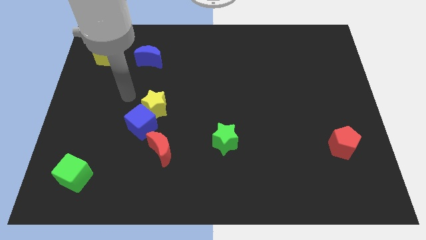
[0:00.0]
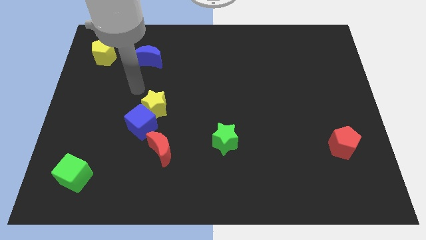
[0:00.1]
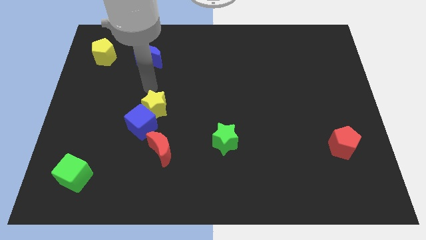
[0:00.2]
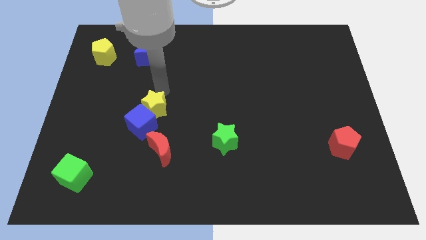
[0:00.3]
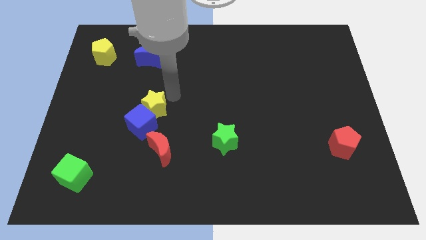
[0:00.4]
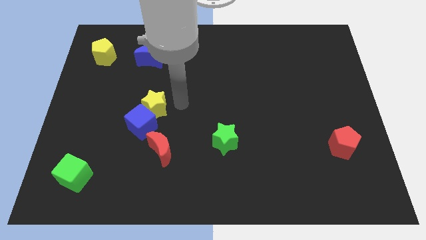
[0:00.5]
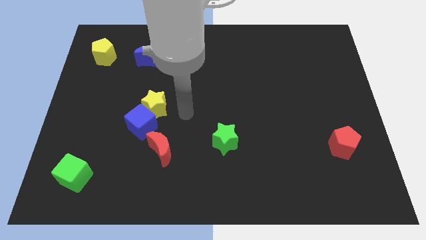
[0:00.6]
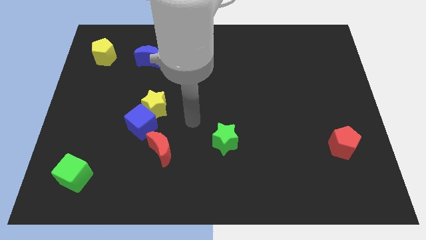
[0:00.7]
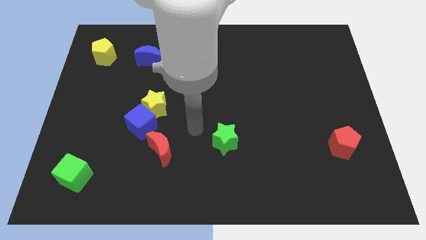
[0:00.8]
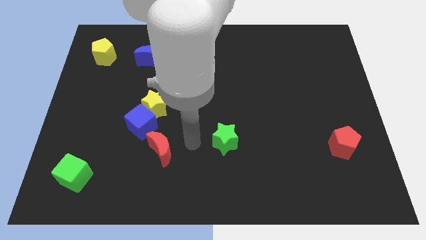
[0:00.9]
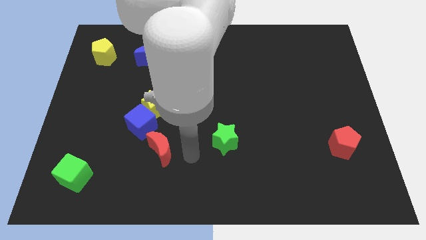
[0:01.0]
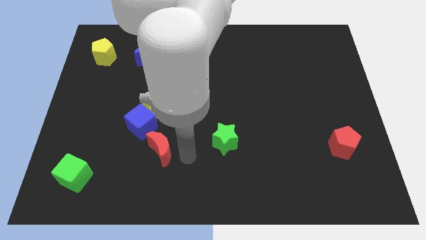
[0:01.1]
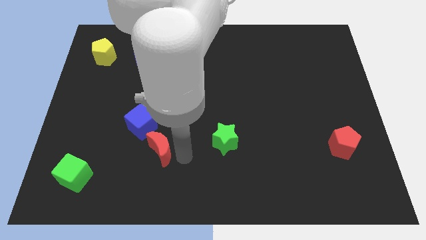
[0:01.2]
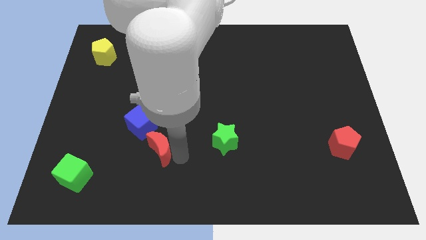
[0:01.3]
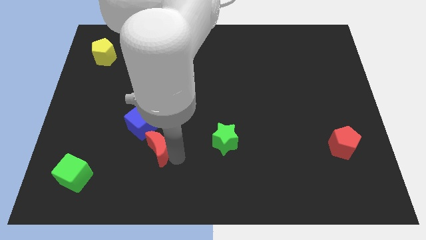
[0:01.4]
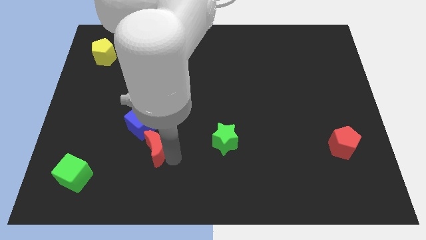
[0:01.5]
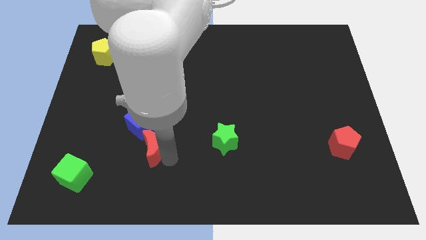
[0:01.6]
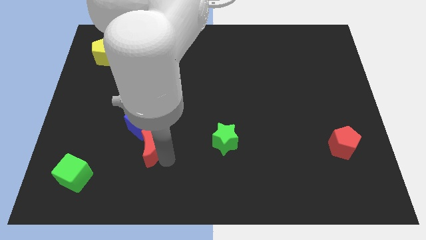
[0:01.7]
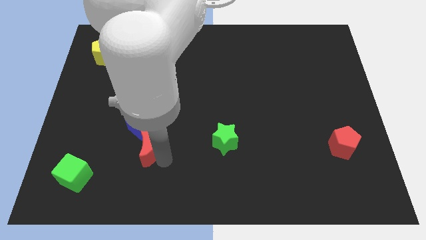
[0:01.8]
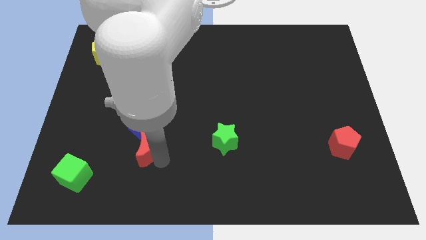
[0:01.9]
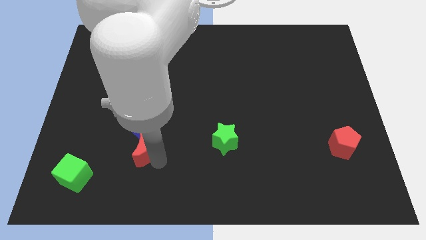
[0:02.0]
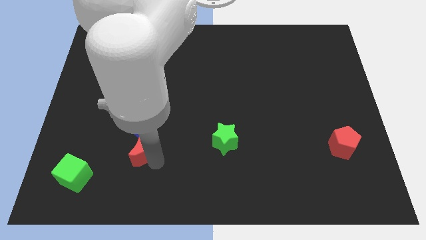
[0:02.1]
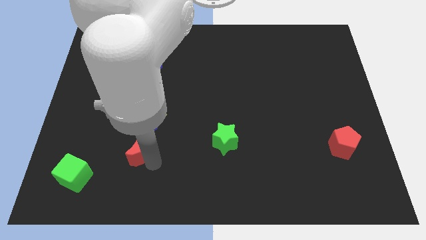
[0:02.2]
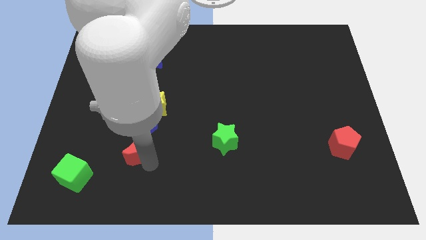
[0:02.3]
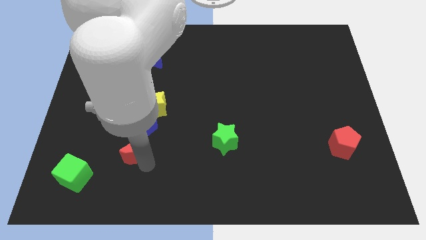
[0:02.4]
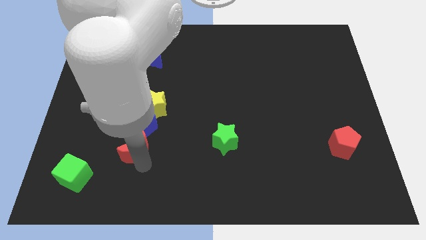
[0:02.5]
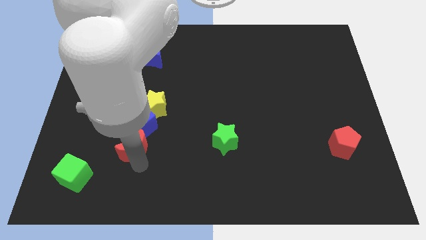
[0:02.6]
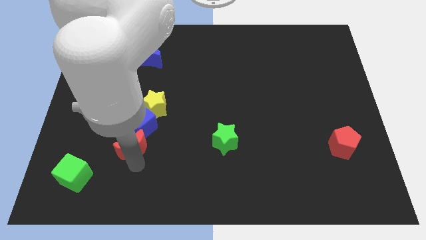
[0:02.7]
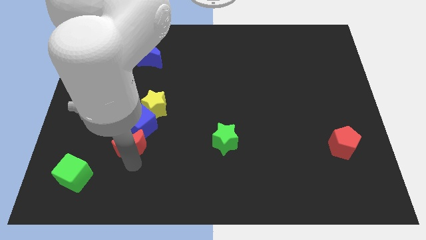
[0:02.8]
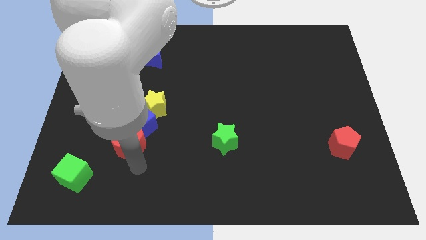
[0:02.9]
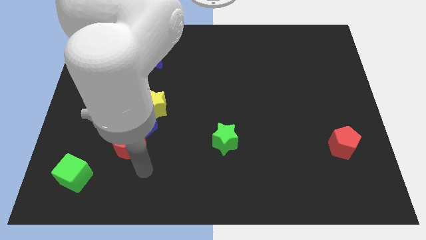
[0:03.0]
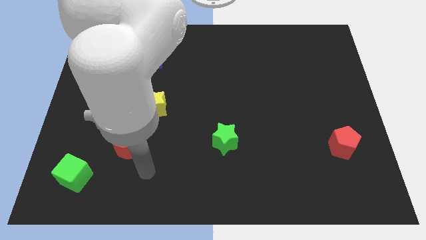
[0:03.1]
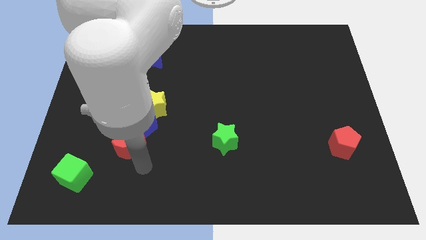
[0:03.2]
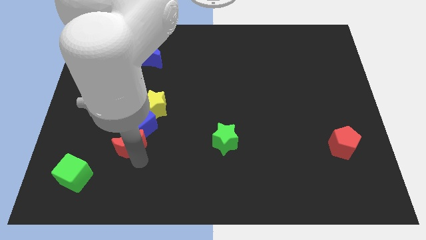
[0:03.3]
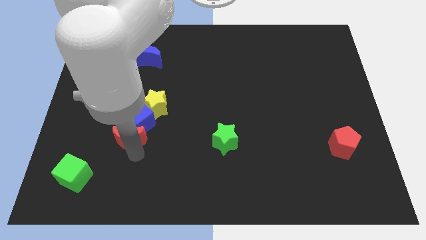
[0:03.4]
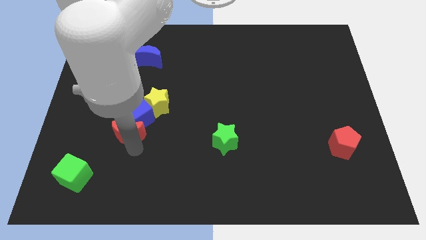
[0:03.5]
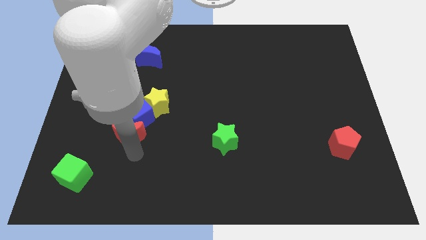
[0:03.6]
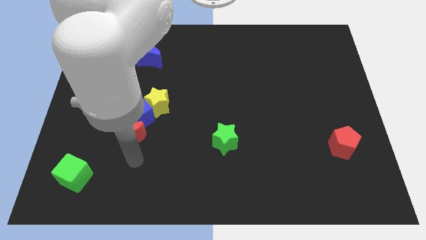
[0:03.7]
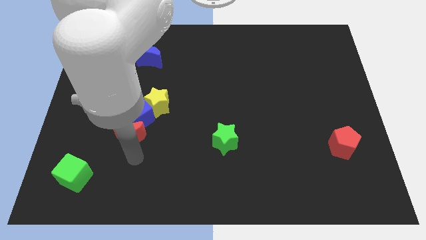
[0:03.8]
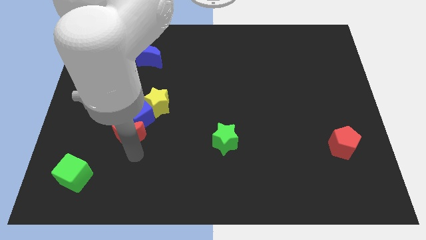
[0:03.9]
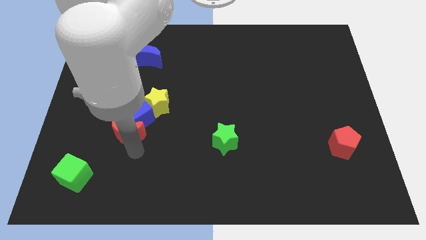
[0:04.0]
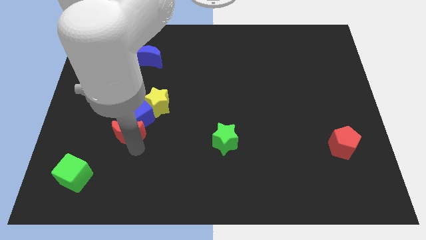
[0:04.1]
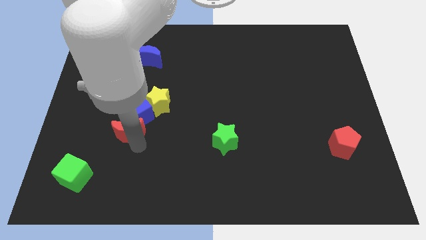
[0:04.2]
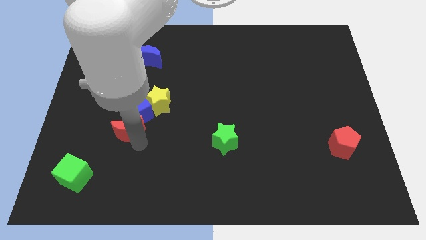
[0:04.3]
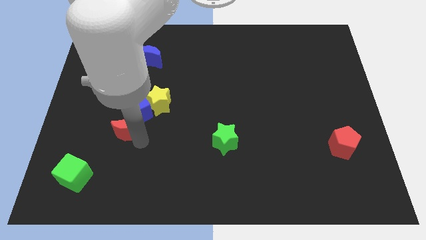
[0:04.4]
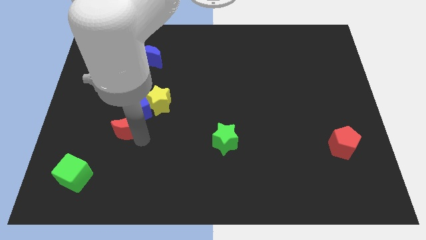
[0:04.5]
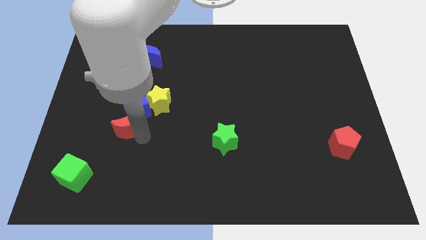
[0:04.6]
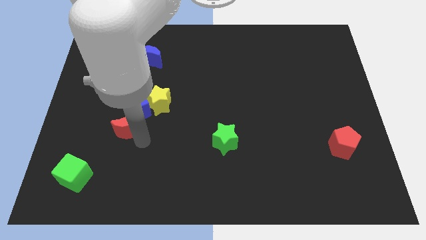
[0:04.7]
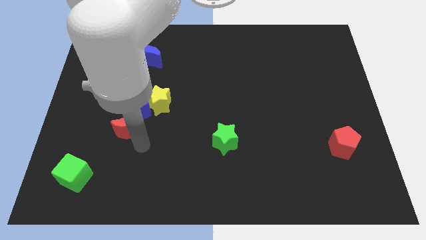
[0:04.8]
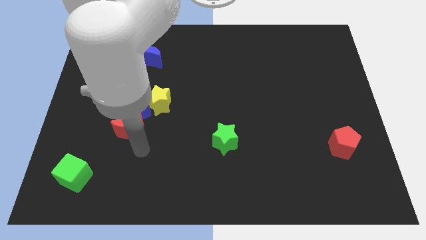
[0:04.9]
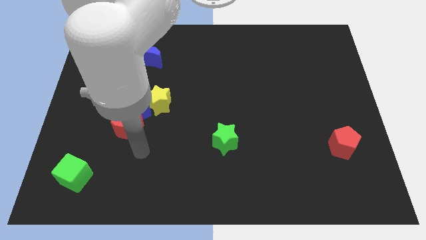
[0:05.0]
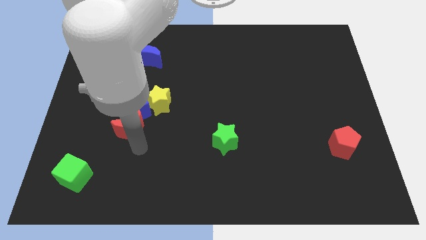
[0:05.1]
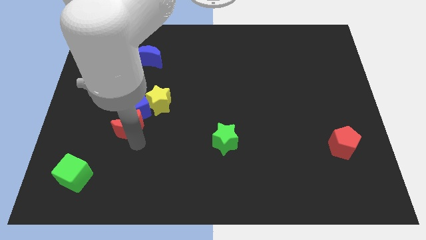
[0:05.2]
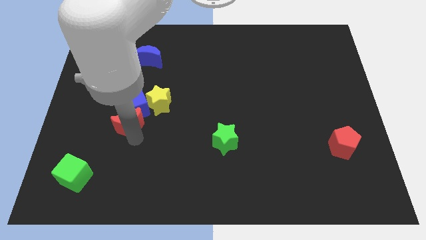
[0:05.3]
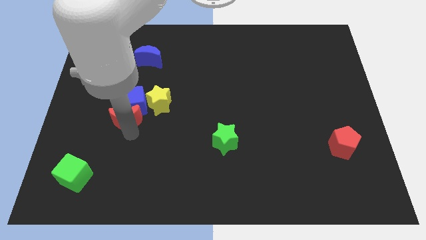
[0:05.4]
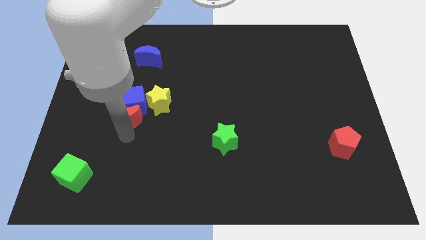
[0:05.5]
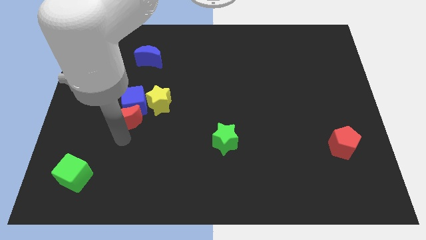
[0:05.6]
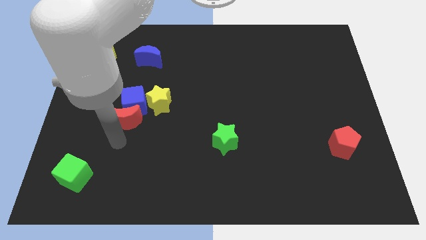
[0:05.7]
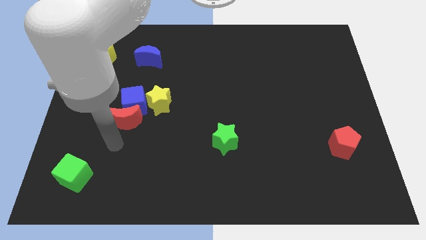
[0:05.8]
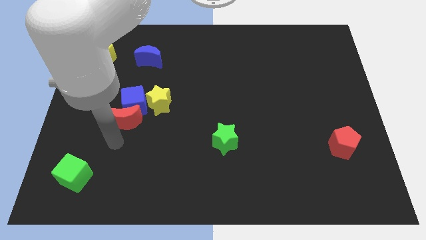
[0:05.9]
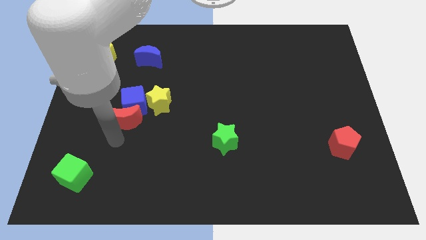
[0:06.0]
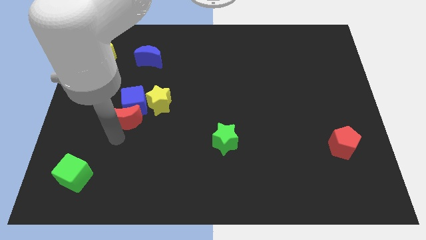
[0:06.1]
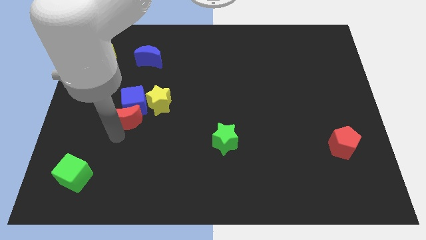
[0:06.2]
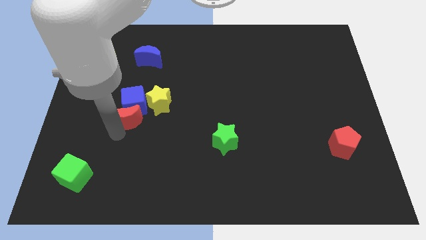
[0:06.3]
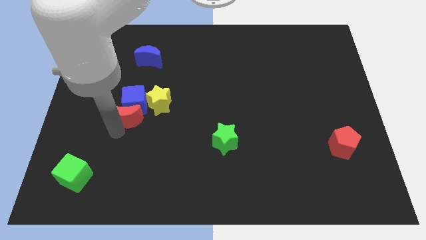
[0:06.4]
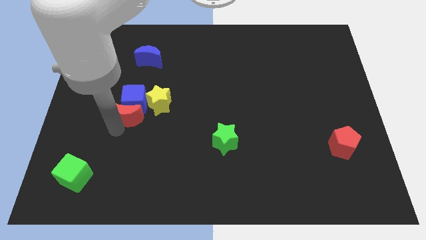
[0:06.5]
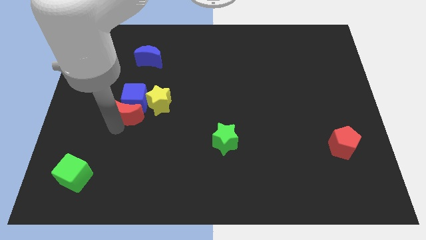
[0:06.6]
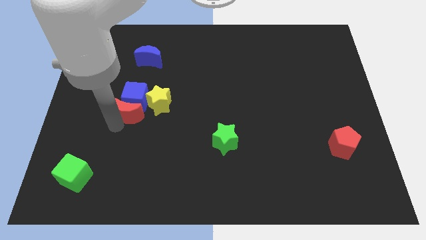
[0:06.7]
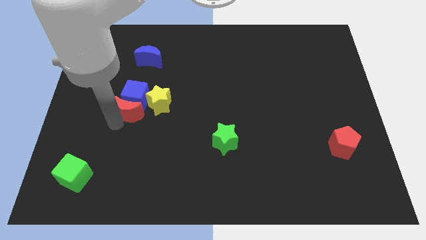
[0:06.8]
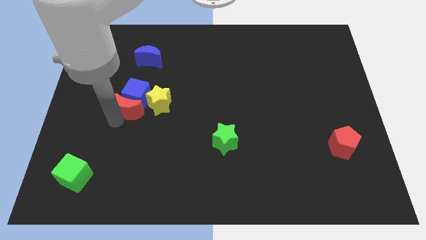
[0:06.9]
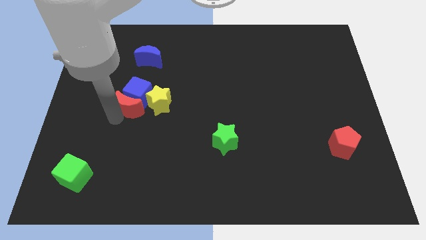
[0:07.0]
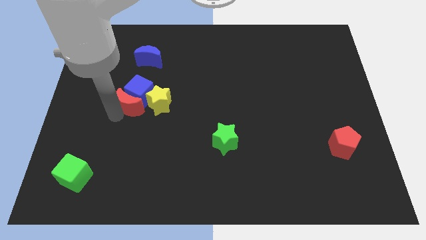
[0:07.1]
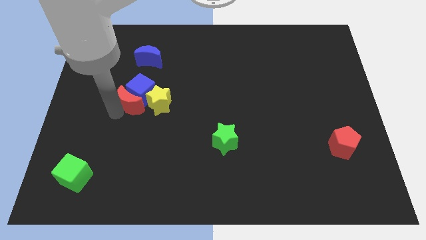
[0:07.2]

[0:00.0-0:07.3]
move the red moon below the blue moon

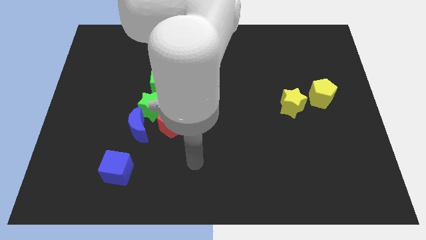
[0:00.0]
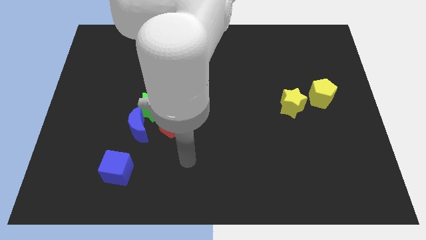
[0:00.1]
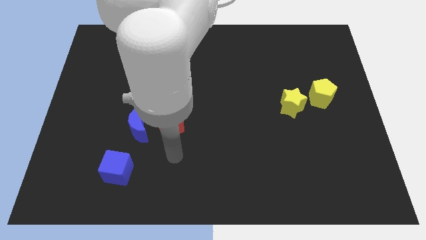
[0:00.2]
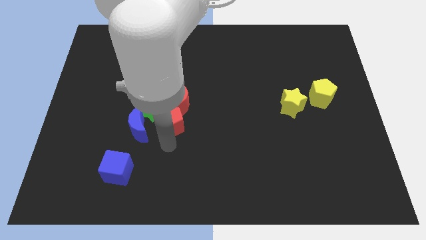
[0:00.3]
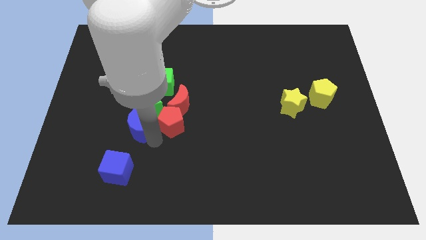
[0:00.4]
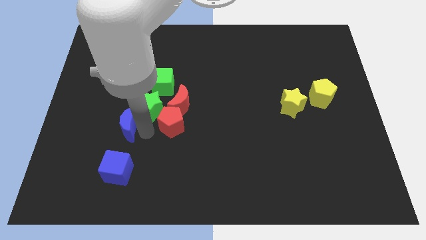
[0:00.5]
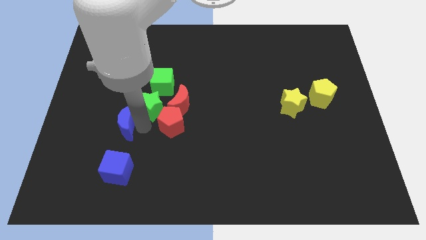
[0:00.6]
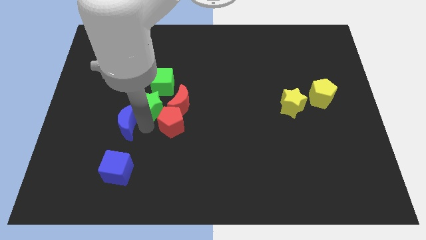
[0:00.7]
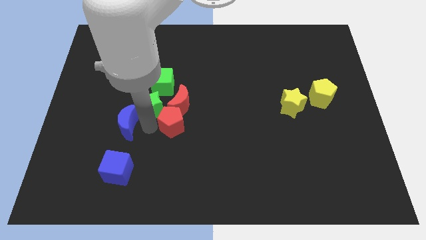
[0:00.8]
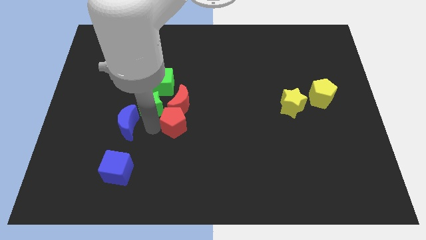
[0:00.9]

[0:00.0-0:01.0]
put the red pentagon to the bottom right side of the red moon
